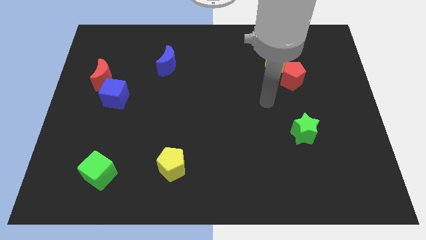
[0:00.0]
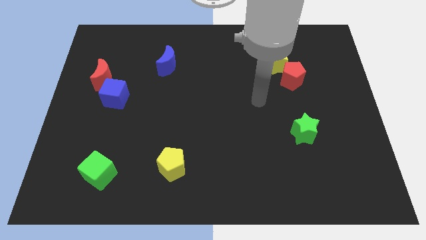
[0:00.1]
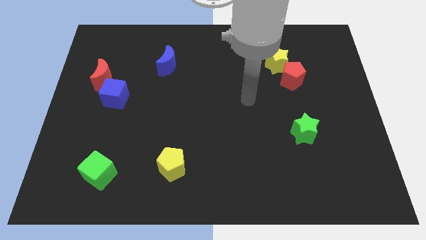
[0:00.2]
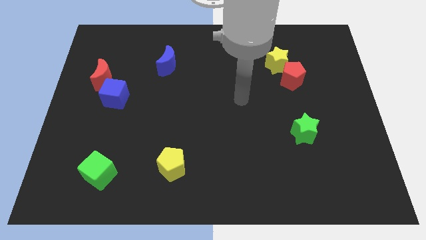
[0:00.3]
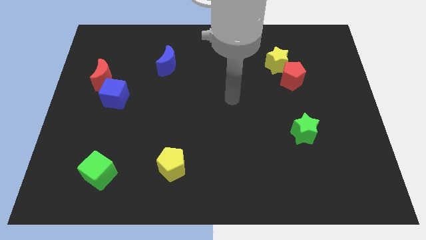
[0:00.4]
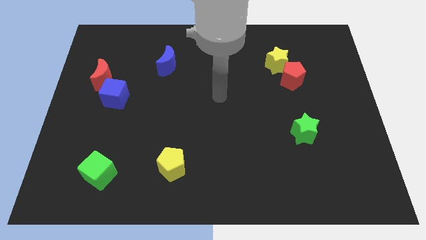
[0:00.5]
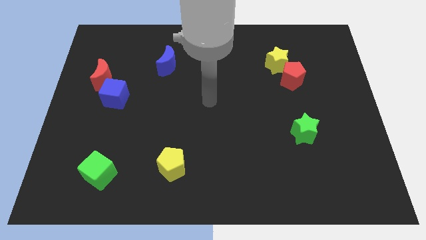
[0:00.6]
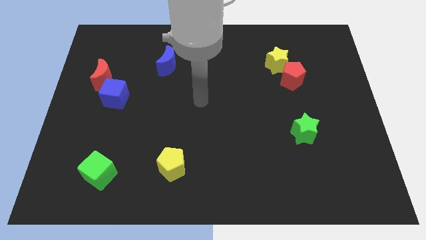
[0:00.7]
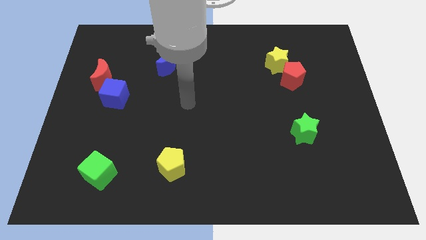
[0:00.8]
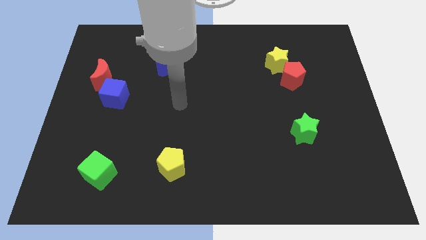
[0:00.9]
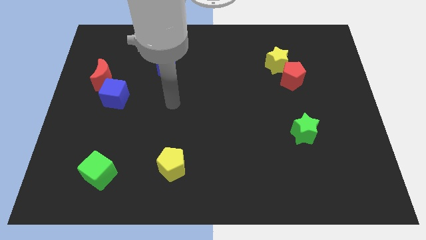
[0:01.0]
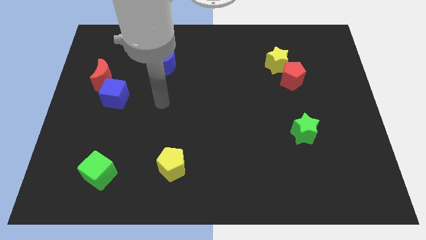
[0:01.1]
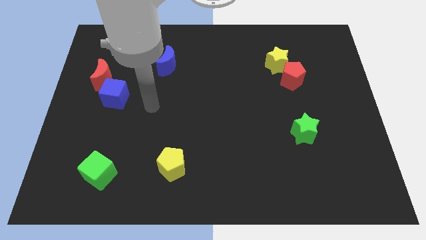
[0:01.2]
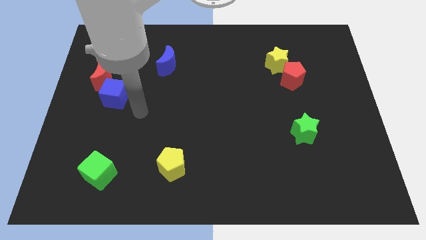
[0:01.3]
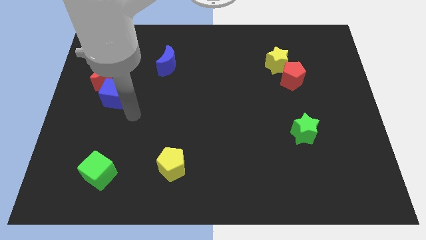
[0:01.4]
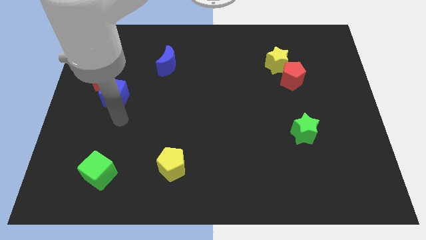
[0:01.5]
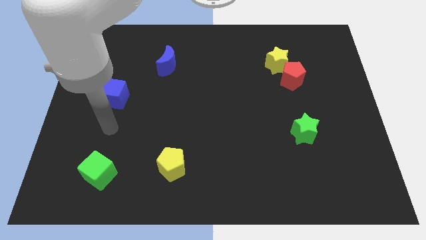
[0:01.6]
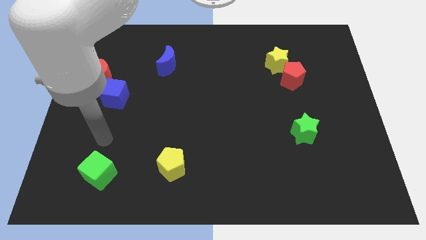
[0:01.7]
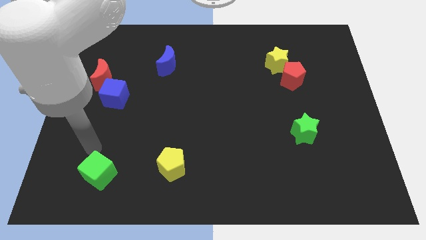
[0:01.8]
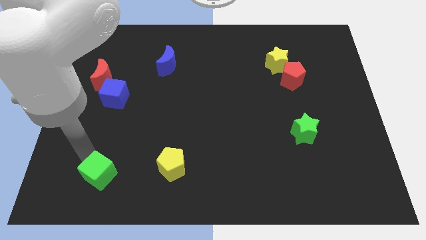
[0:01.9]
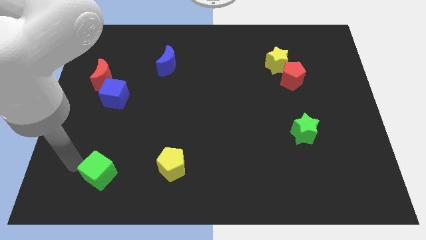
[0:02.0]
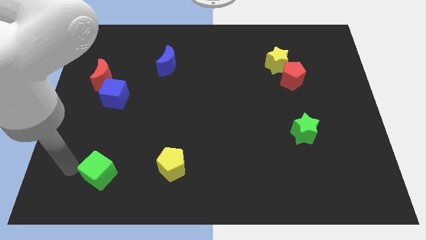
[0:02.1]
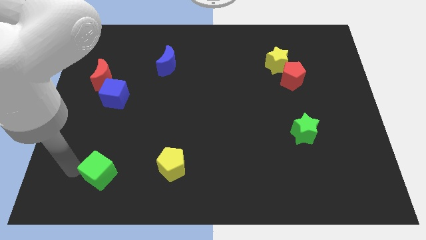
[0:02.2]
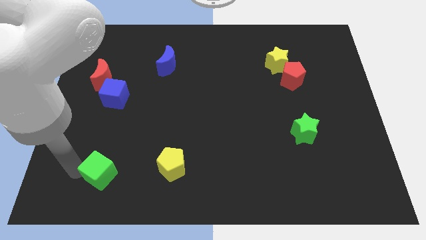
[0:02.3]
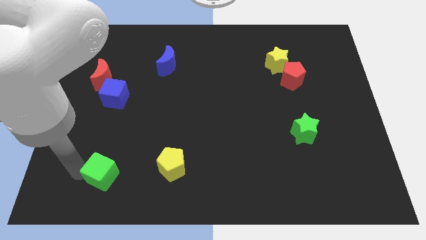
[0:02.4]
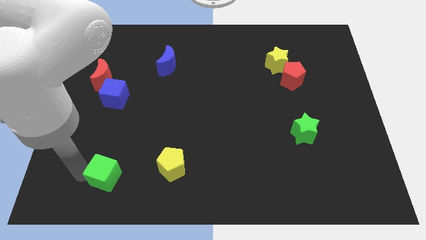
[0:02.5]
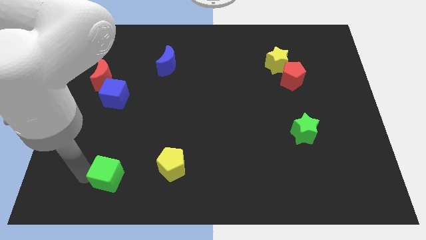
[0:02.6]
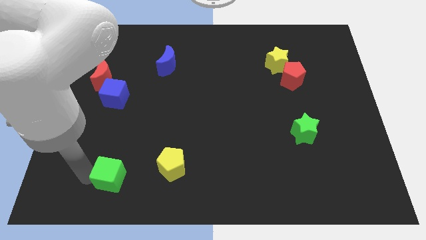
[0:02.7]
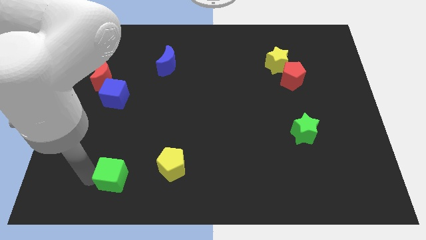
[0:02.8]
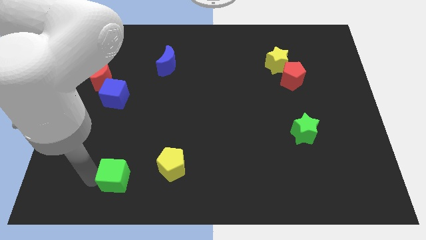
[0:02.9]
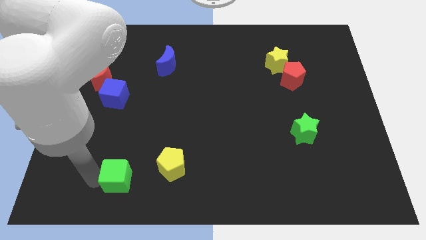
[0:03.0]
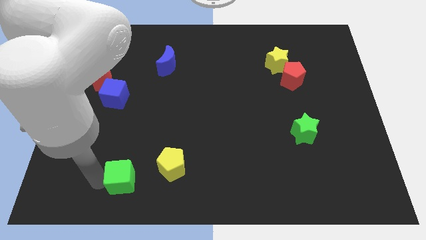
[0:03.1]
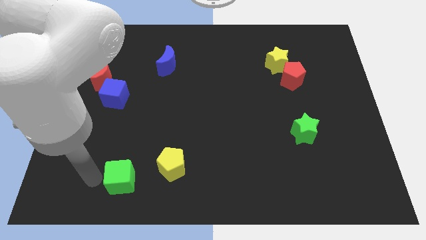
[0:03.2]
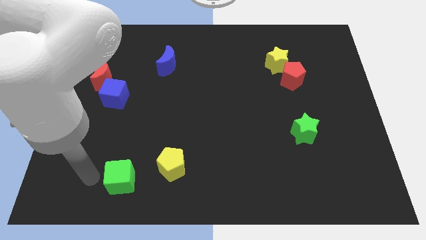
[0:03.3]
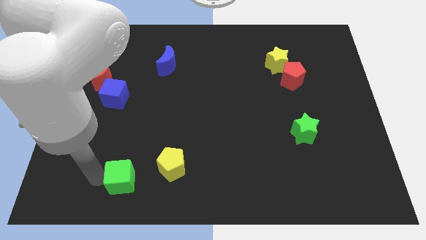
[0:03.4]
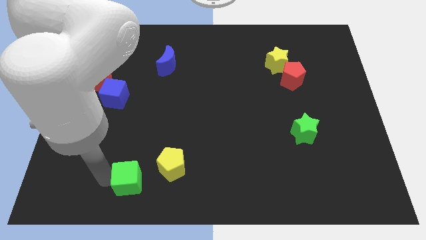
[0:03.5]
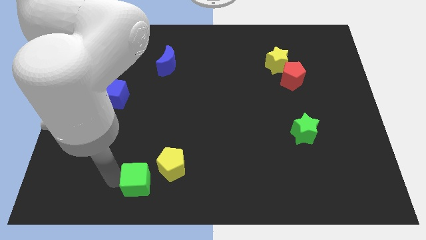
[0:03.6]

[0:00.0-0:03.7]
slide the green cube somewhat right

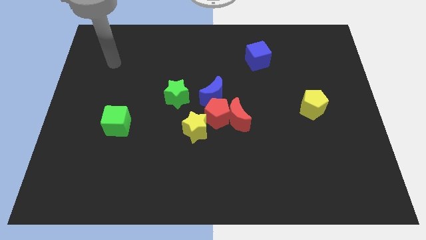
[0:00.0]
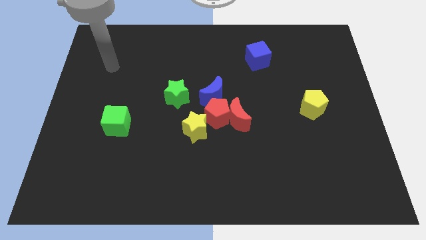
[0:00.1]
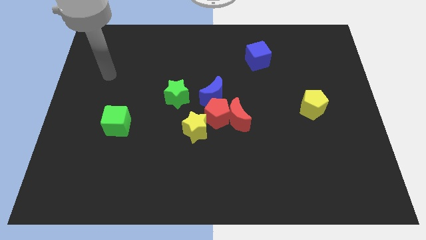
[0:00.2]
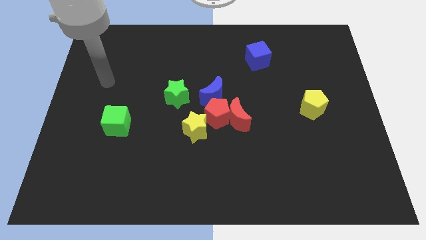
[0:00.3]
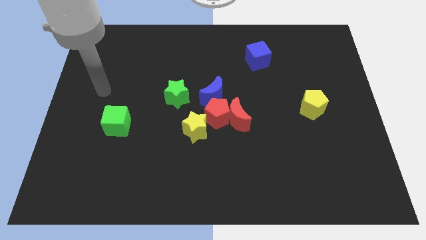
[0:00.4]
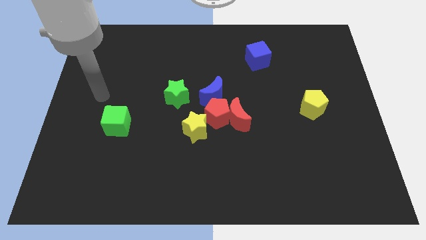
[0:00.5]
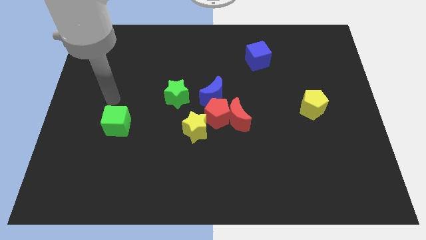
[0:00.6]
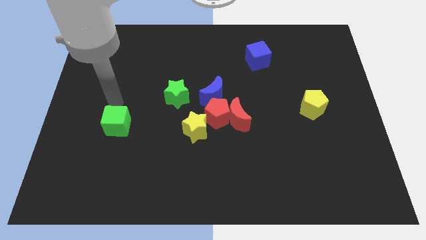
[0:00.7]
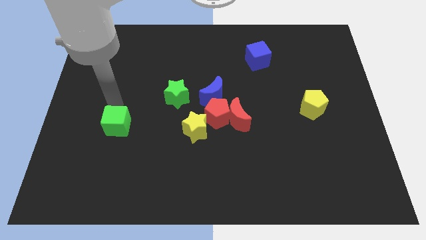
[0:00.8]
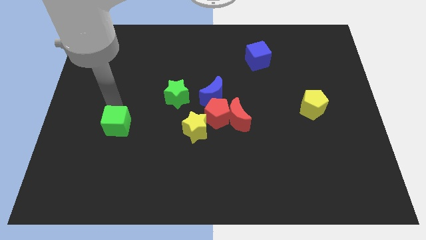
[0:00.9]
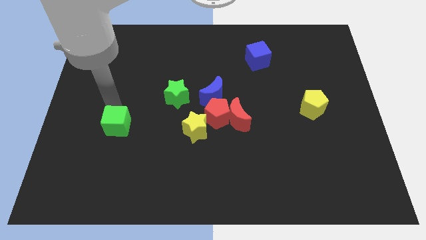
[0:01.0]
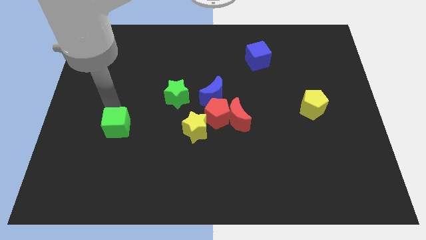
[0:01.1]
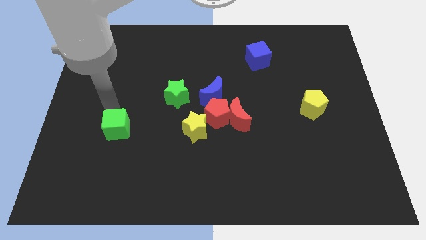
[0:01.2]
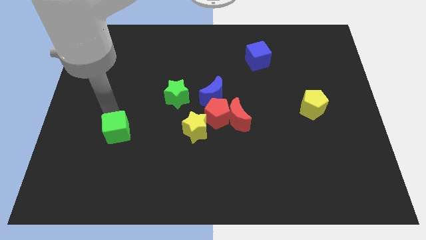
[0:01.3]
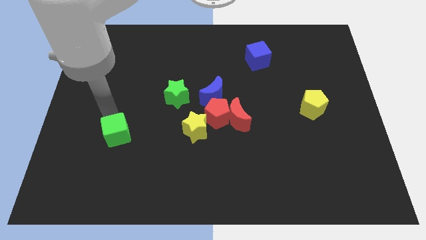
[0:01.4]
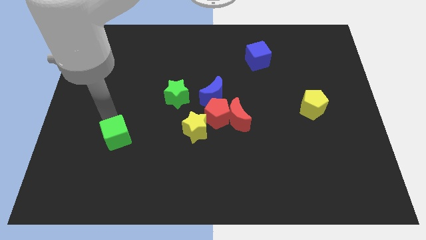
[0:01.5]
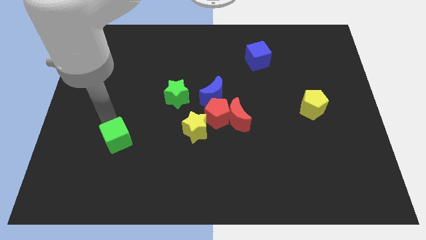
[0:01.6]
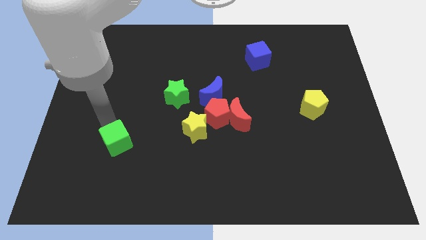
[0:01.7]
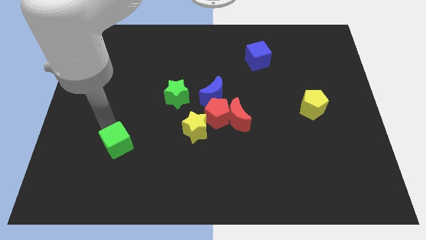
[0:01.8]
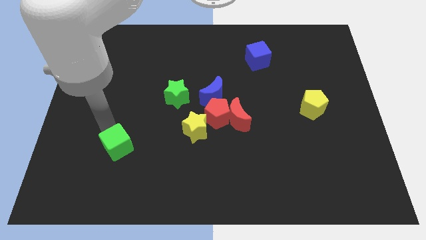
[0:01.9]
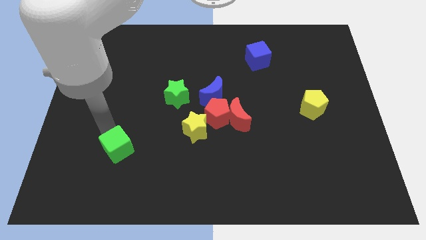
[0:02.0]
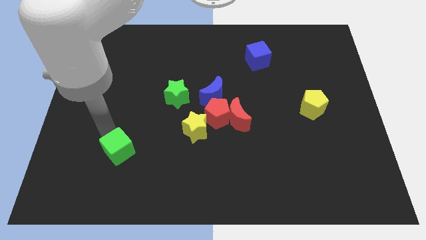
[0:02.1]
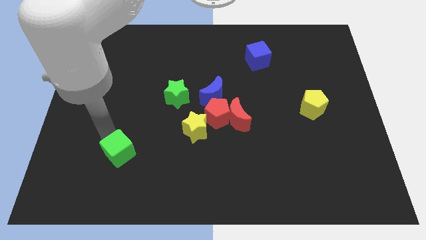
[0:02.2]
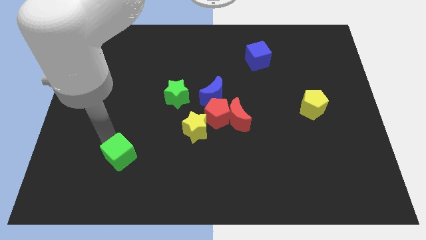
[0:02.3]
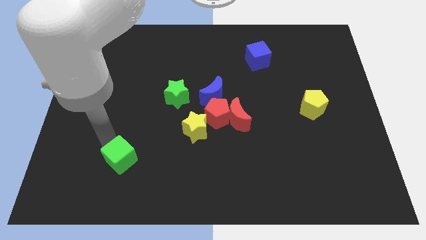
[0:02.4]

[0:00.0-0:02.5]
slide the green cube slightly diagonally downwards and right

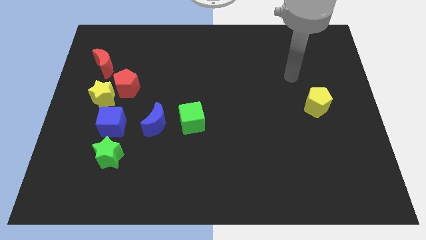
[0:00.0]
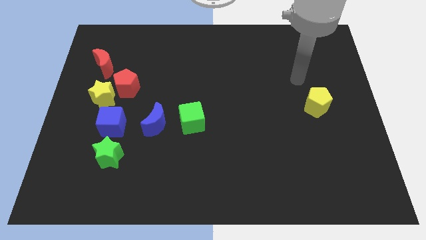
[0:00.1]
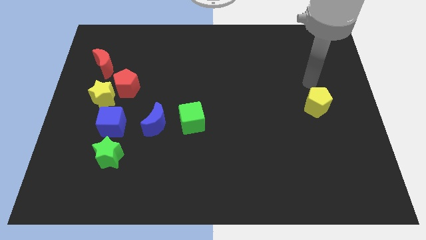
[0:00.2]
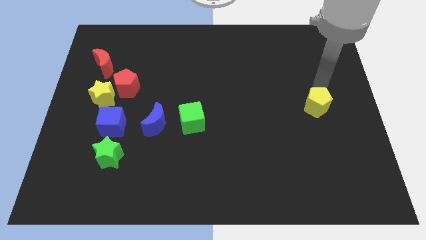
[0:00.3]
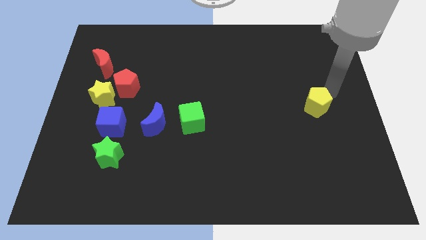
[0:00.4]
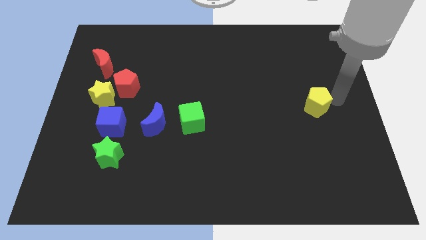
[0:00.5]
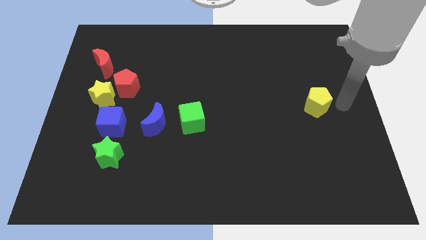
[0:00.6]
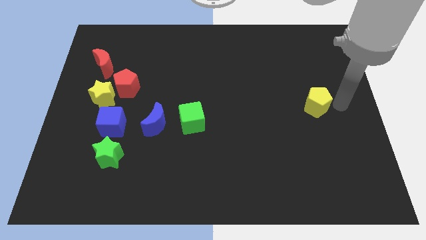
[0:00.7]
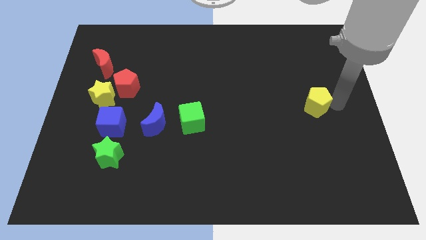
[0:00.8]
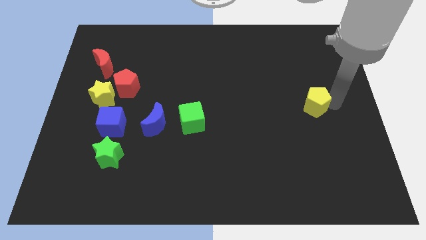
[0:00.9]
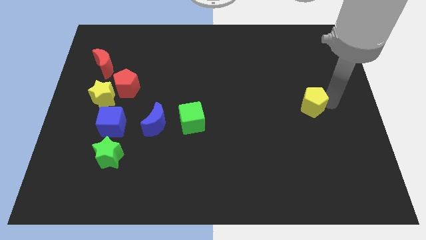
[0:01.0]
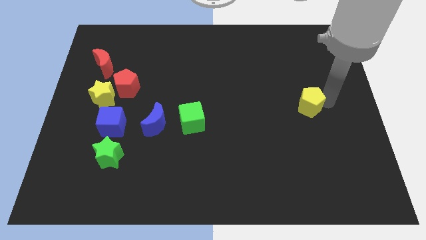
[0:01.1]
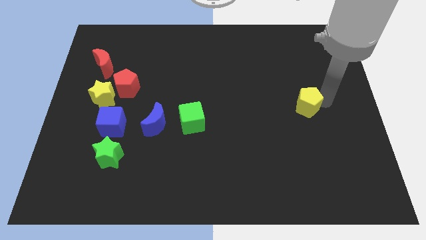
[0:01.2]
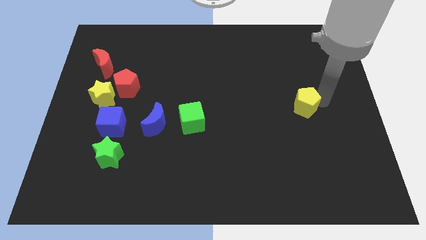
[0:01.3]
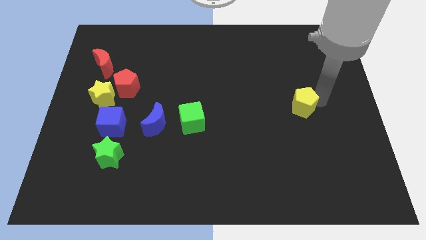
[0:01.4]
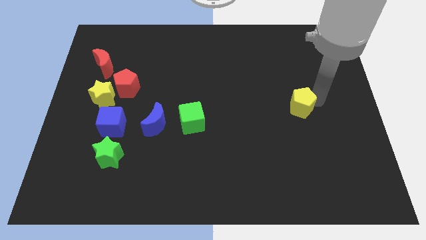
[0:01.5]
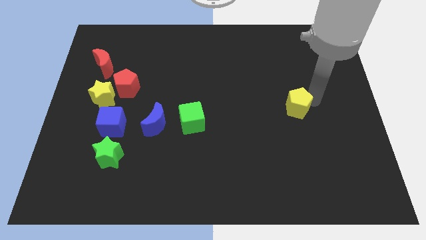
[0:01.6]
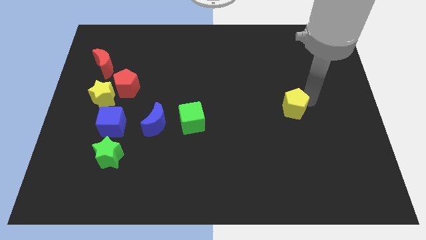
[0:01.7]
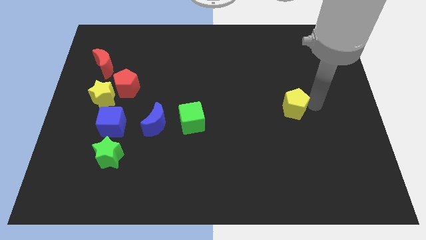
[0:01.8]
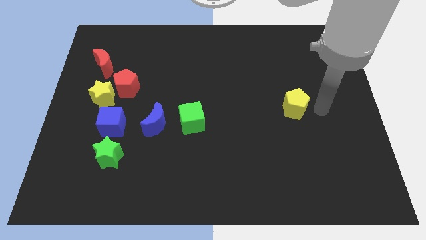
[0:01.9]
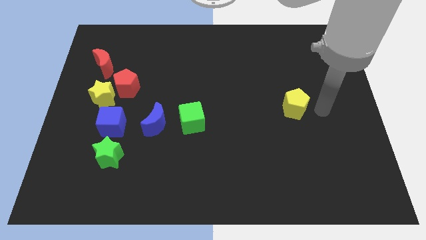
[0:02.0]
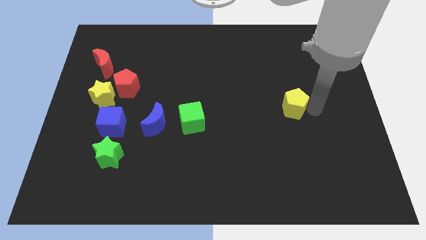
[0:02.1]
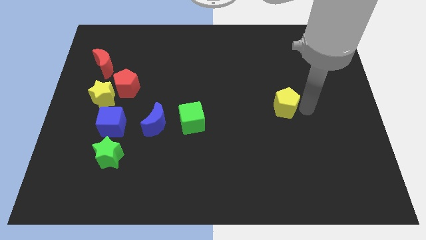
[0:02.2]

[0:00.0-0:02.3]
push the yellow pentagon a little to the left

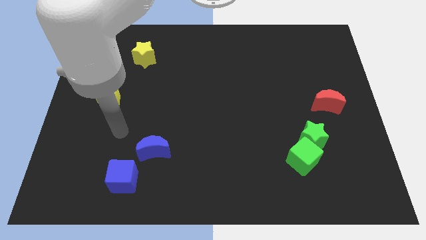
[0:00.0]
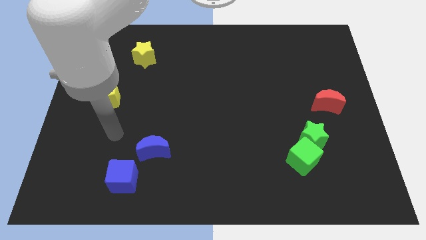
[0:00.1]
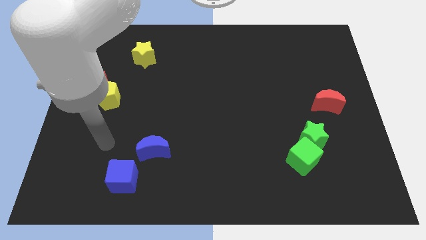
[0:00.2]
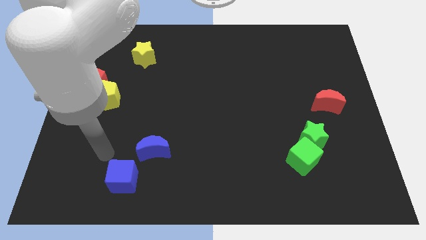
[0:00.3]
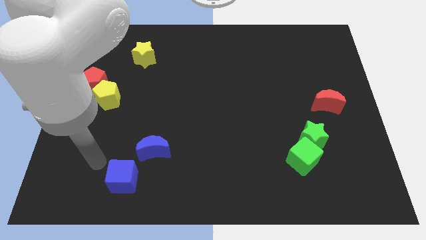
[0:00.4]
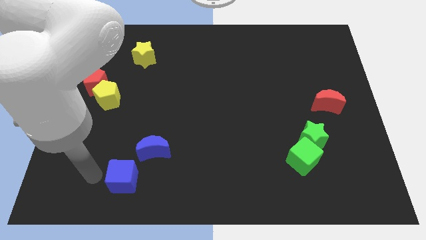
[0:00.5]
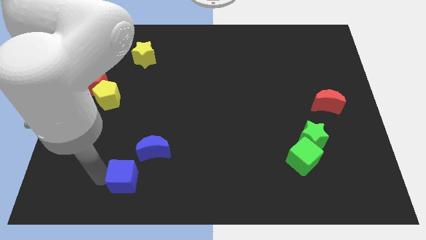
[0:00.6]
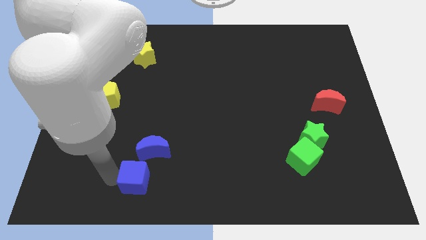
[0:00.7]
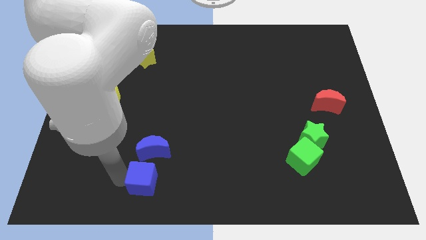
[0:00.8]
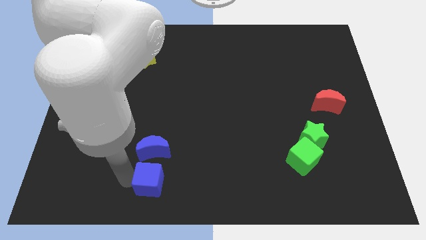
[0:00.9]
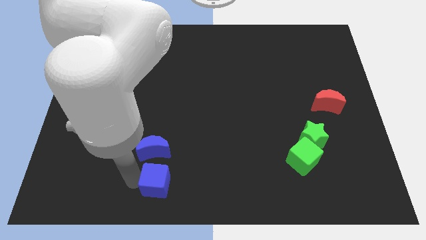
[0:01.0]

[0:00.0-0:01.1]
push the blue cube right slightly
